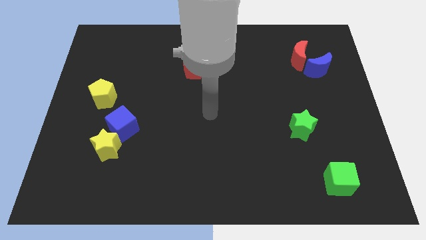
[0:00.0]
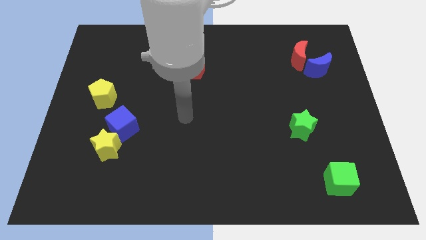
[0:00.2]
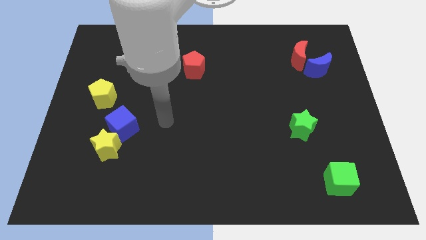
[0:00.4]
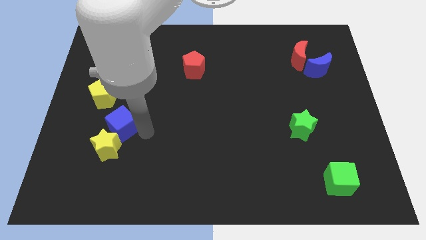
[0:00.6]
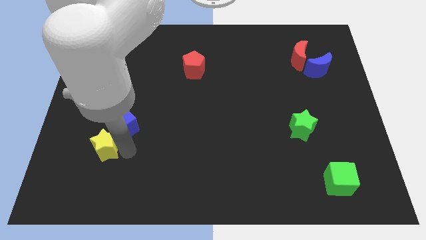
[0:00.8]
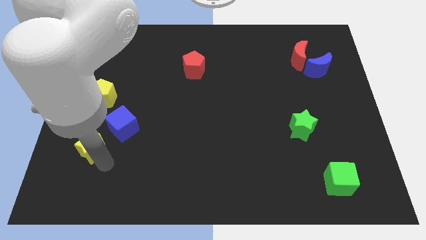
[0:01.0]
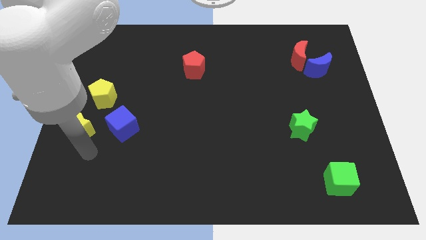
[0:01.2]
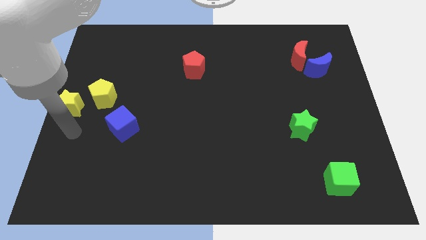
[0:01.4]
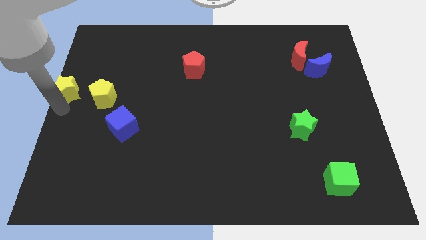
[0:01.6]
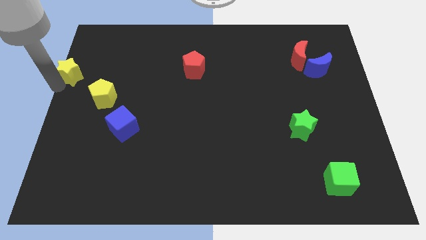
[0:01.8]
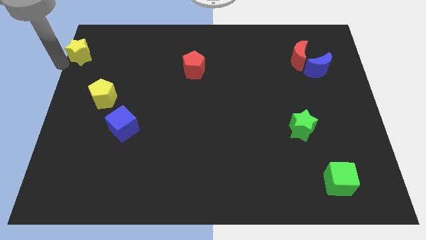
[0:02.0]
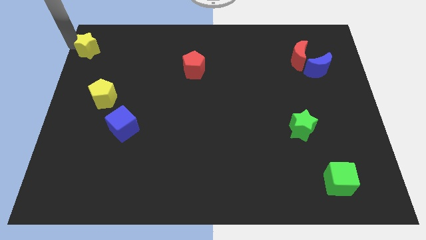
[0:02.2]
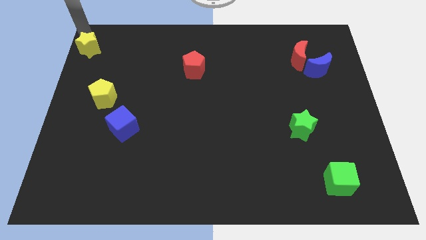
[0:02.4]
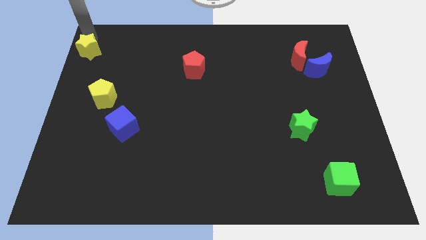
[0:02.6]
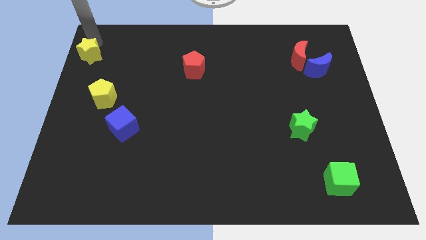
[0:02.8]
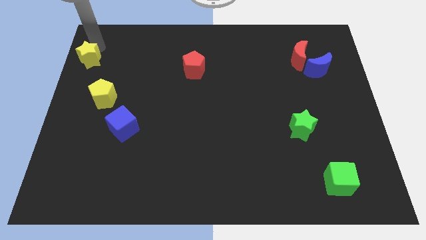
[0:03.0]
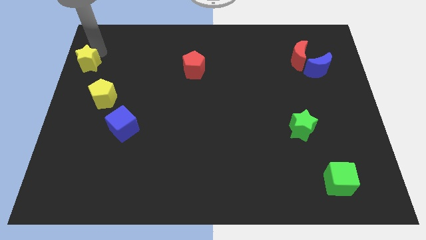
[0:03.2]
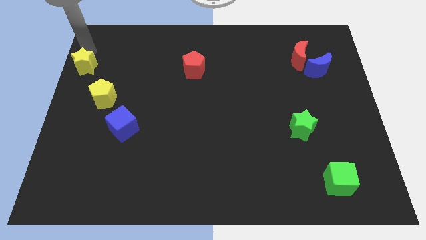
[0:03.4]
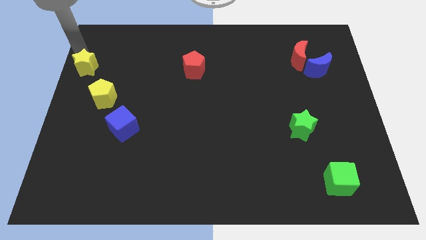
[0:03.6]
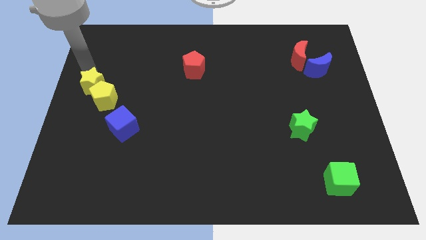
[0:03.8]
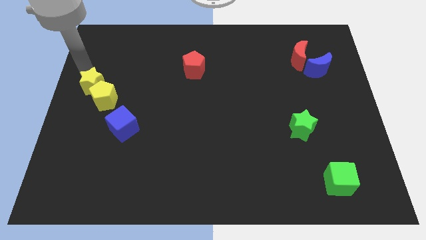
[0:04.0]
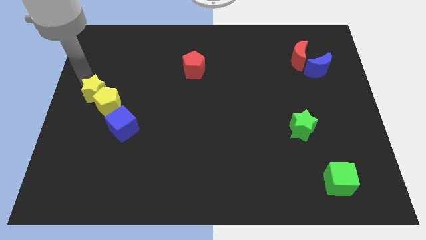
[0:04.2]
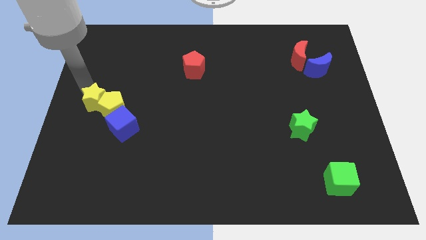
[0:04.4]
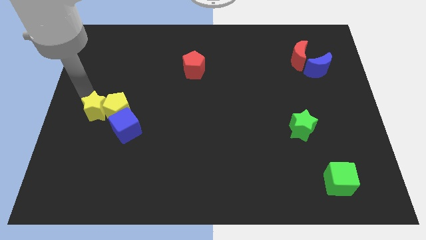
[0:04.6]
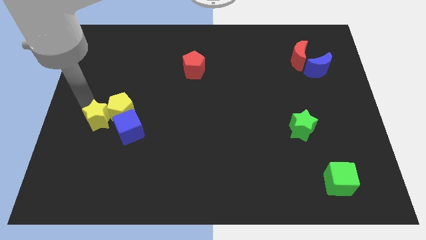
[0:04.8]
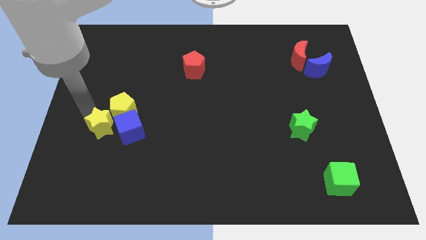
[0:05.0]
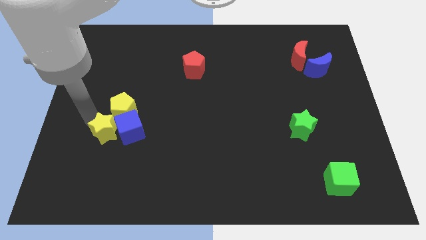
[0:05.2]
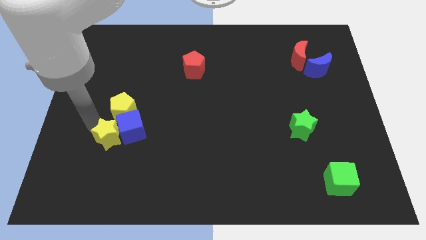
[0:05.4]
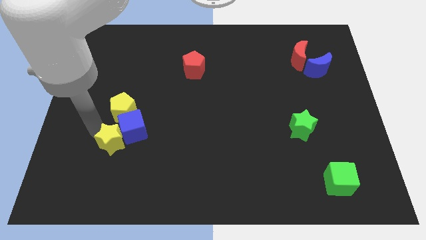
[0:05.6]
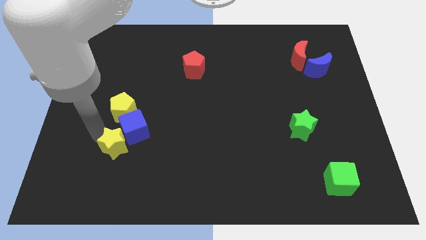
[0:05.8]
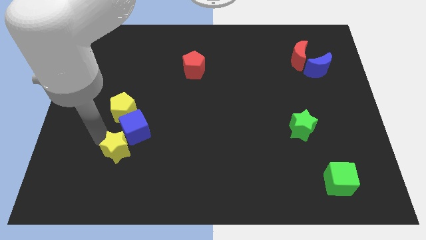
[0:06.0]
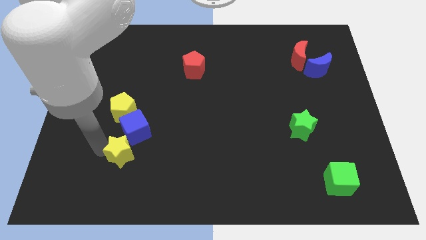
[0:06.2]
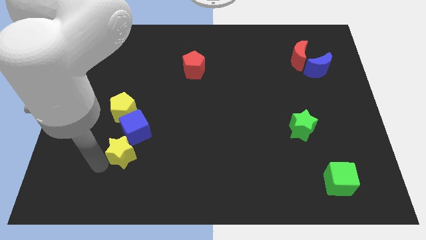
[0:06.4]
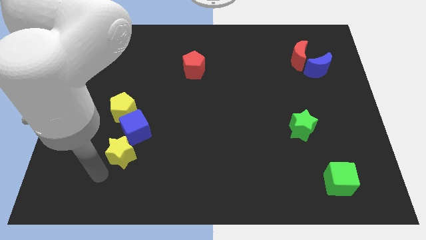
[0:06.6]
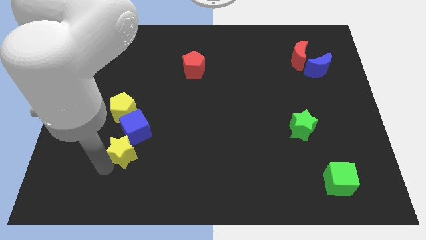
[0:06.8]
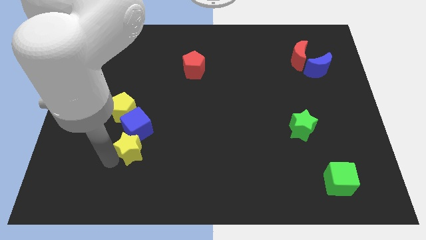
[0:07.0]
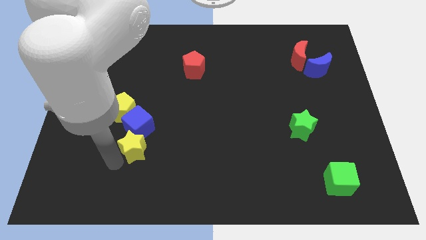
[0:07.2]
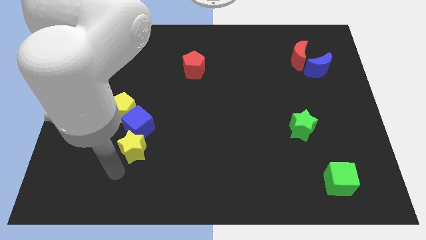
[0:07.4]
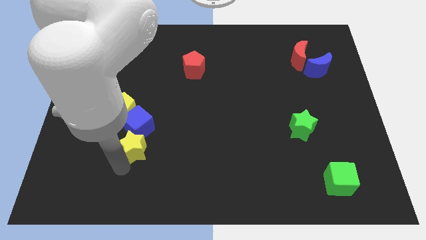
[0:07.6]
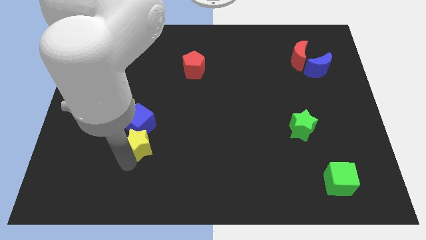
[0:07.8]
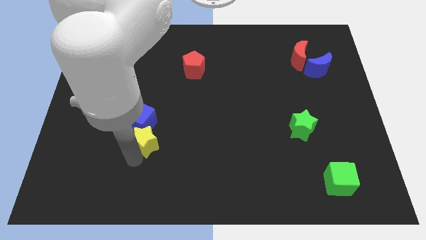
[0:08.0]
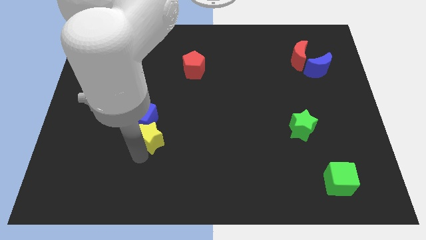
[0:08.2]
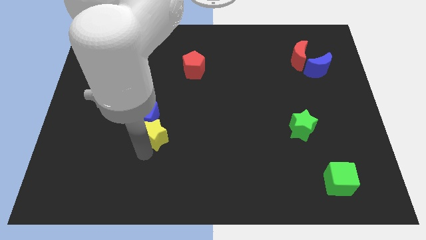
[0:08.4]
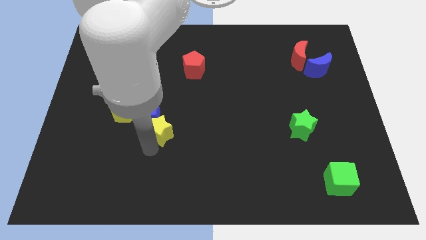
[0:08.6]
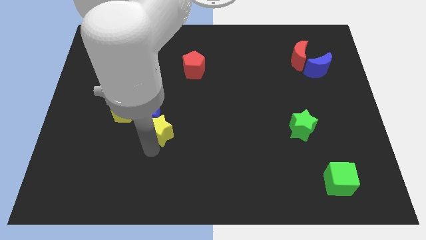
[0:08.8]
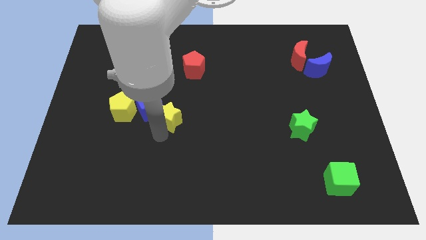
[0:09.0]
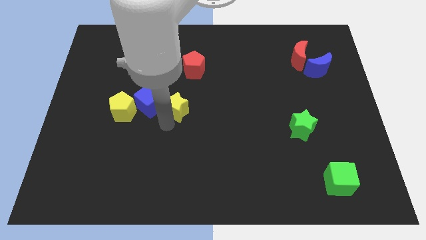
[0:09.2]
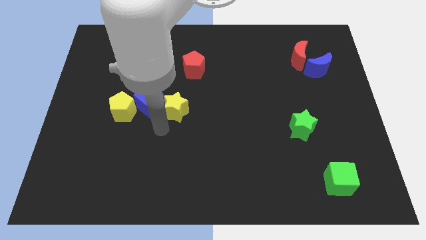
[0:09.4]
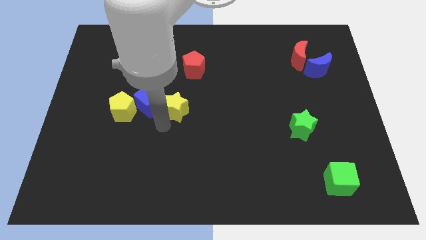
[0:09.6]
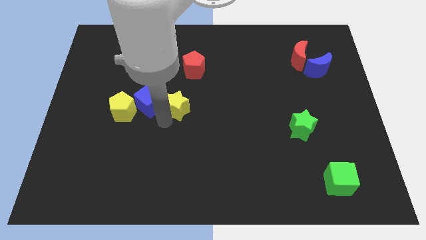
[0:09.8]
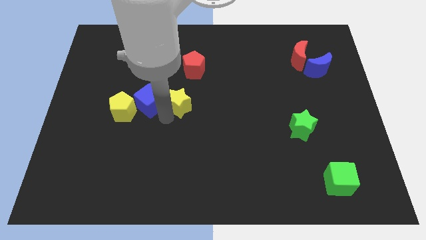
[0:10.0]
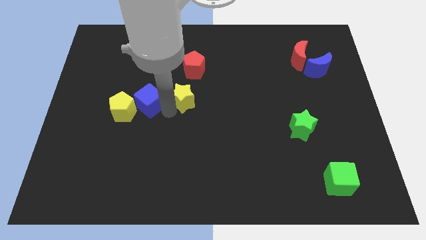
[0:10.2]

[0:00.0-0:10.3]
slide the yellow star diagonally upwards and to the right

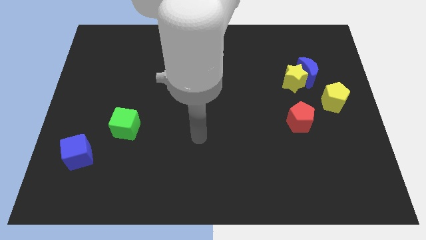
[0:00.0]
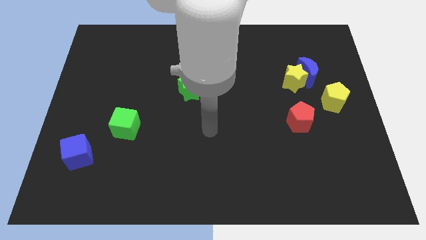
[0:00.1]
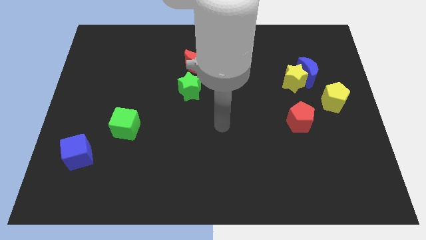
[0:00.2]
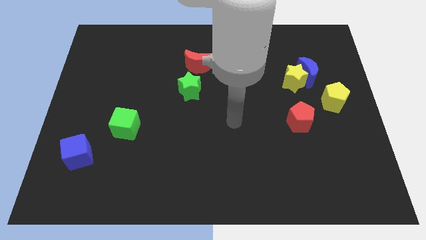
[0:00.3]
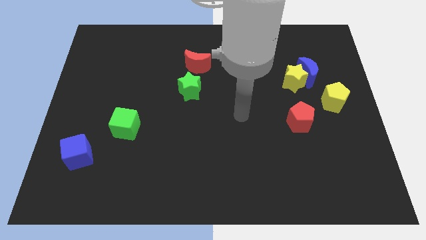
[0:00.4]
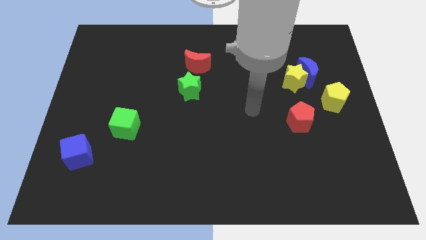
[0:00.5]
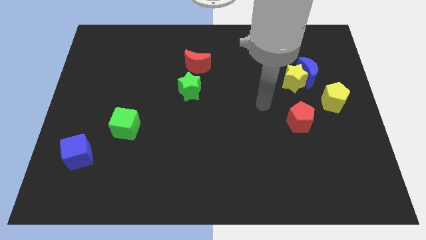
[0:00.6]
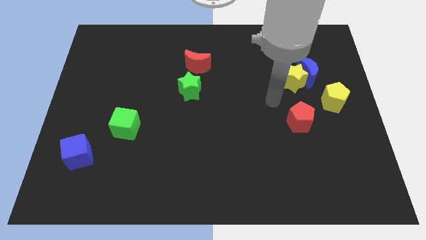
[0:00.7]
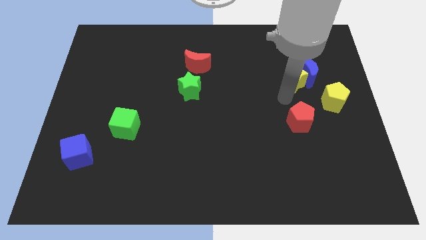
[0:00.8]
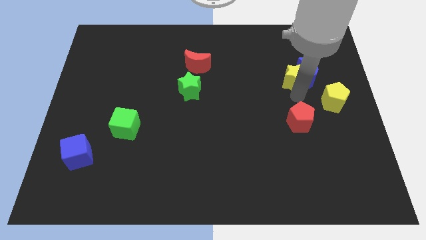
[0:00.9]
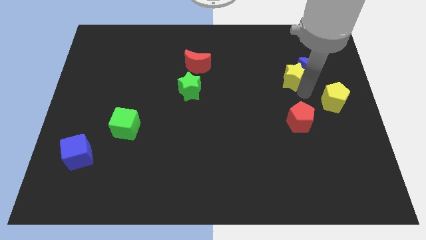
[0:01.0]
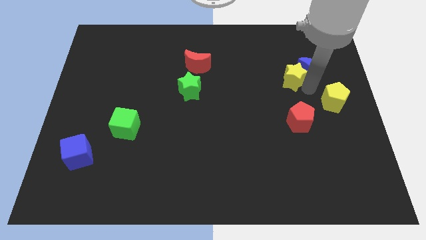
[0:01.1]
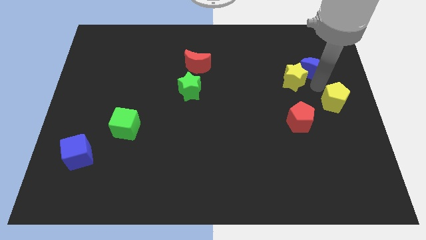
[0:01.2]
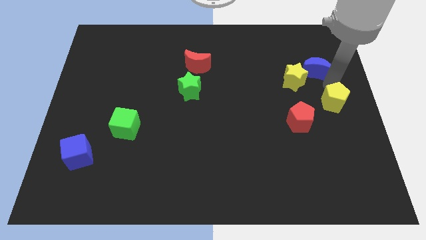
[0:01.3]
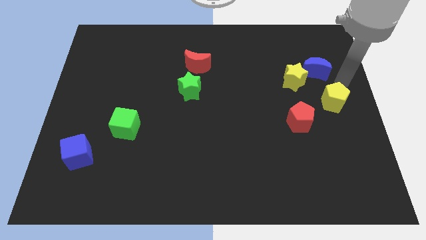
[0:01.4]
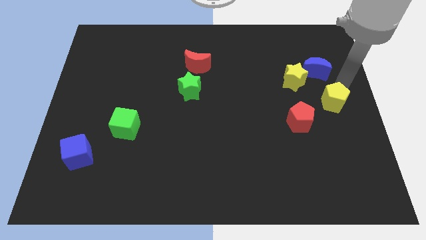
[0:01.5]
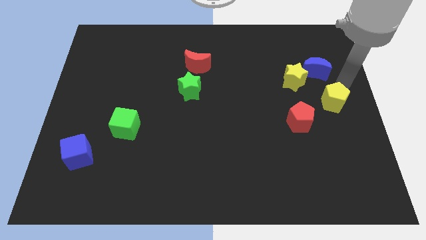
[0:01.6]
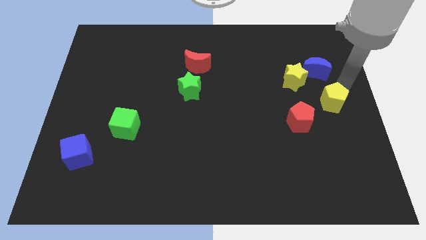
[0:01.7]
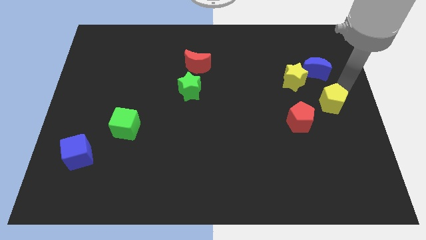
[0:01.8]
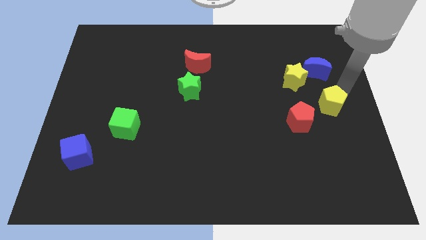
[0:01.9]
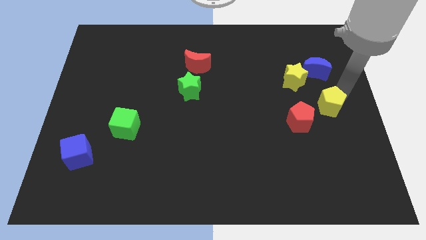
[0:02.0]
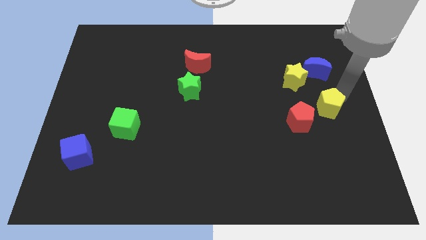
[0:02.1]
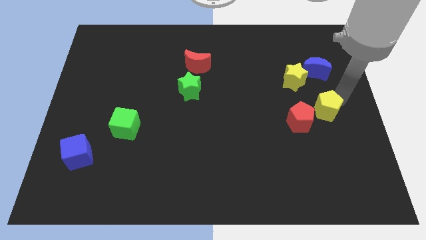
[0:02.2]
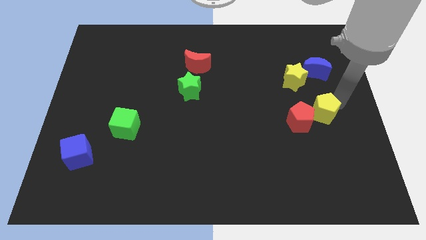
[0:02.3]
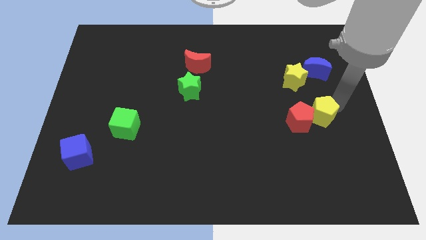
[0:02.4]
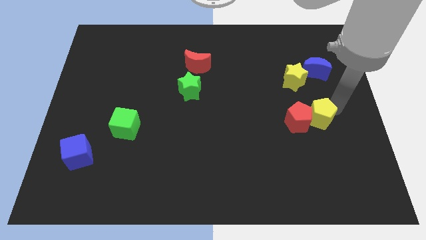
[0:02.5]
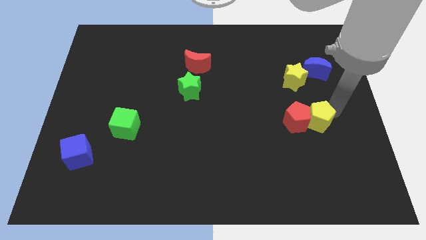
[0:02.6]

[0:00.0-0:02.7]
slide the yellow pentagon a little bit downwards and left

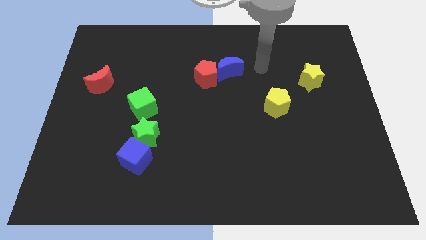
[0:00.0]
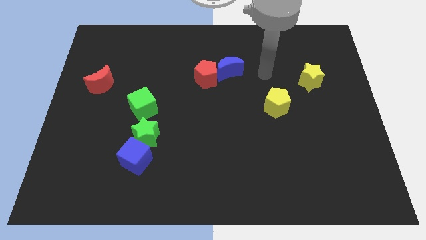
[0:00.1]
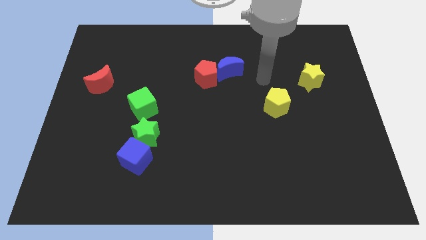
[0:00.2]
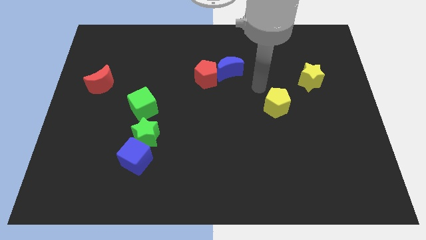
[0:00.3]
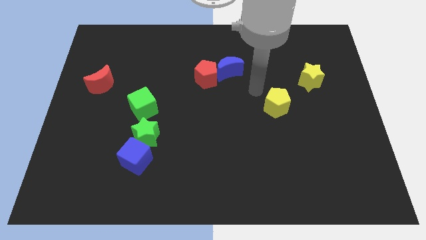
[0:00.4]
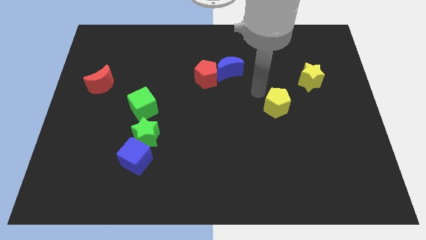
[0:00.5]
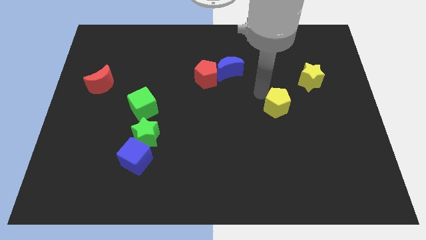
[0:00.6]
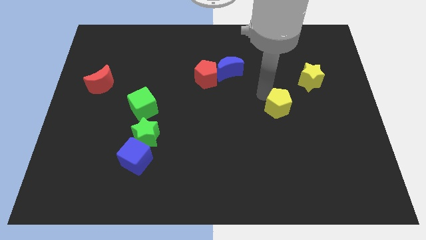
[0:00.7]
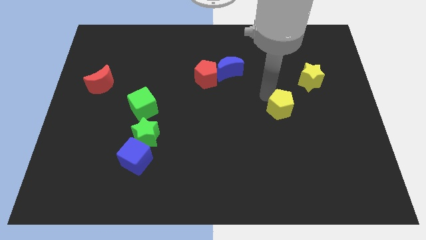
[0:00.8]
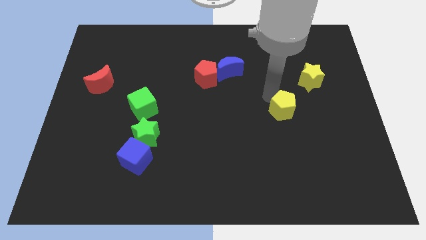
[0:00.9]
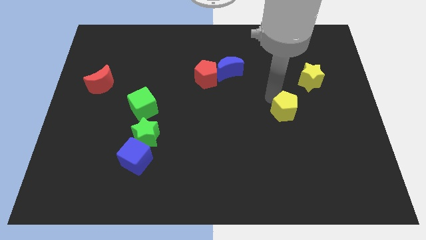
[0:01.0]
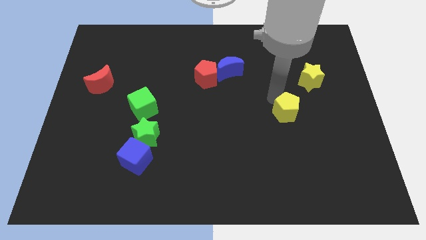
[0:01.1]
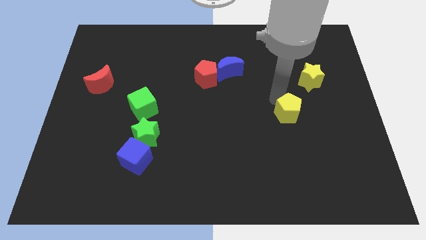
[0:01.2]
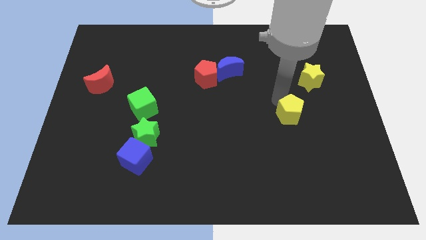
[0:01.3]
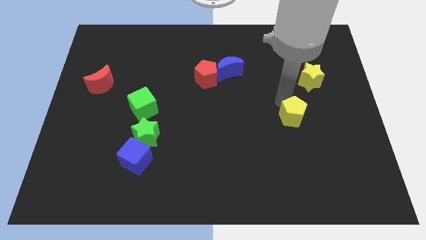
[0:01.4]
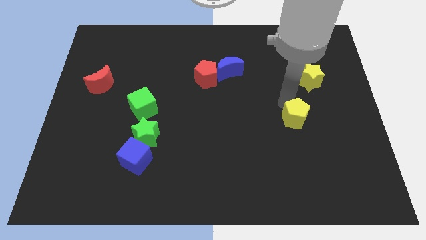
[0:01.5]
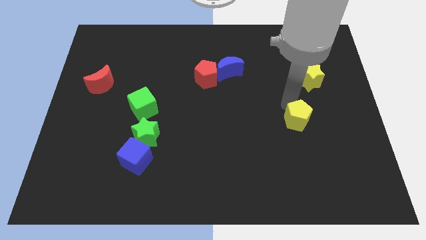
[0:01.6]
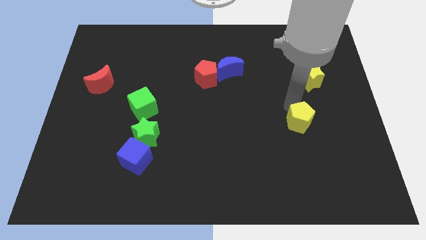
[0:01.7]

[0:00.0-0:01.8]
push the yellow pentagon downwards and then right a little
